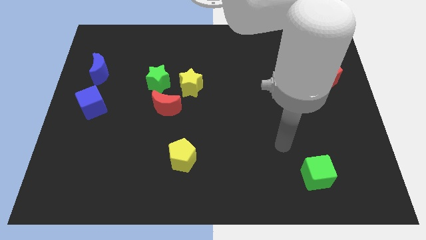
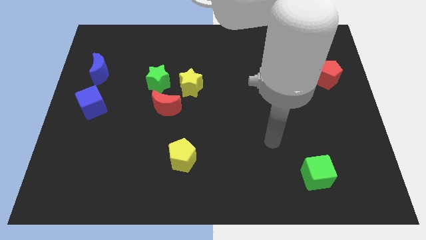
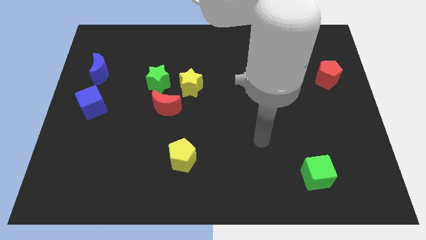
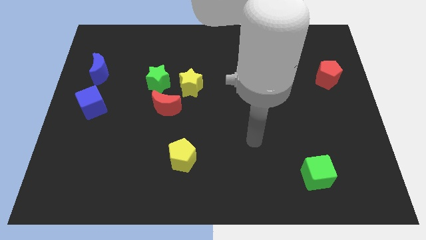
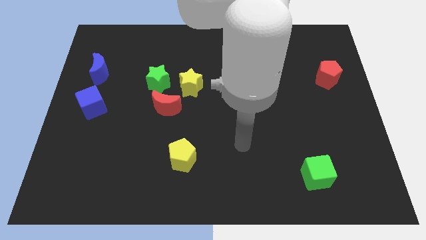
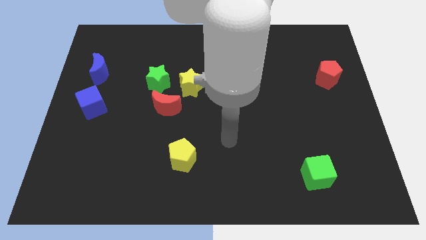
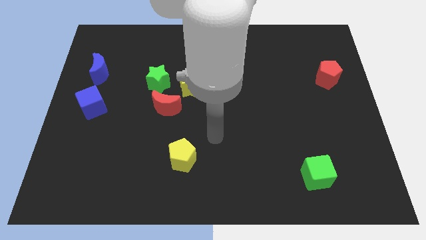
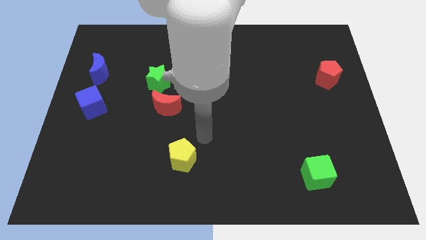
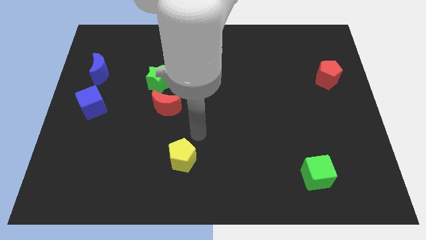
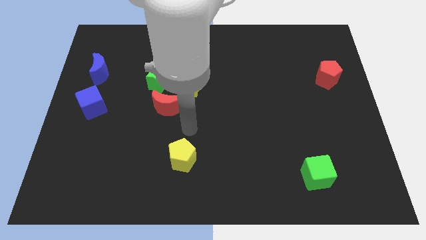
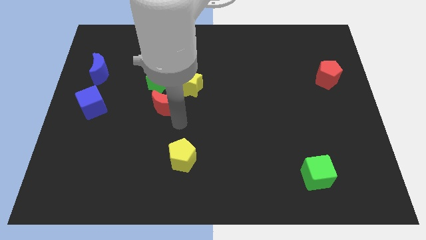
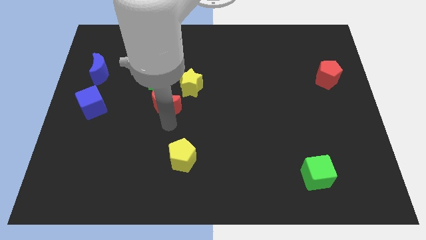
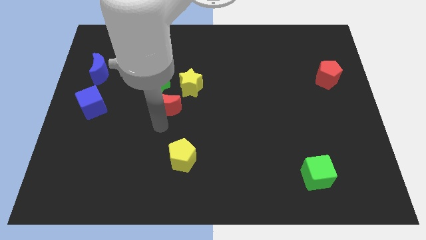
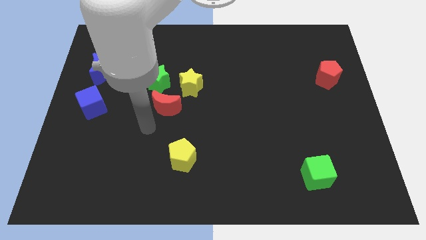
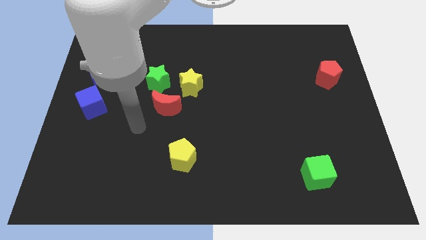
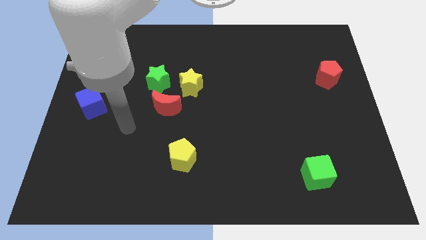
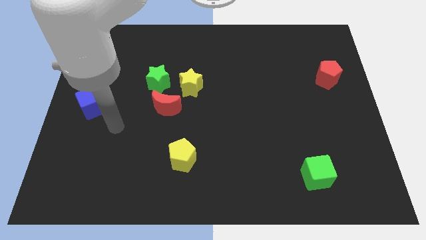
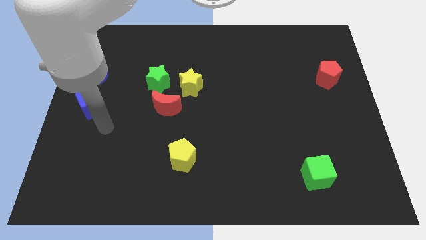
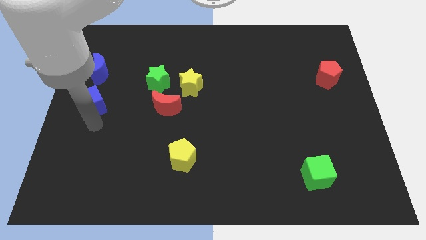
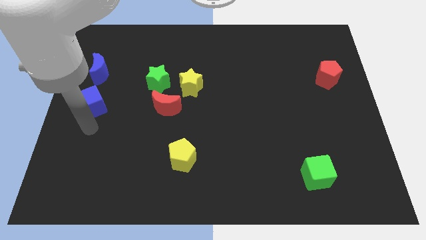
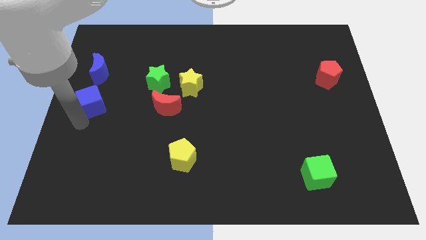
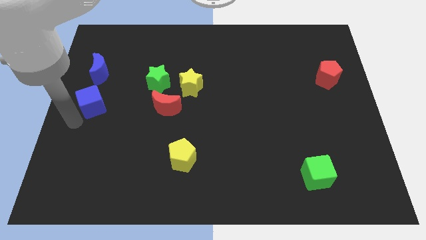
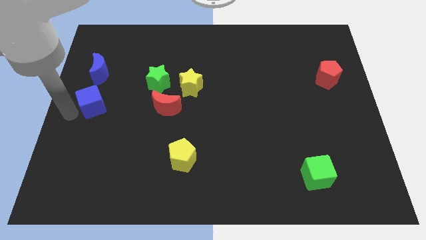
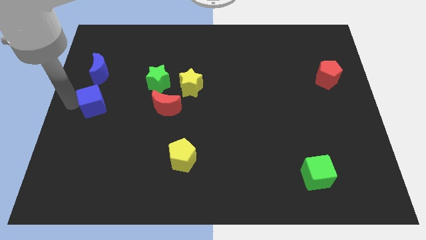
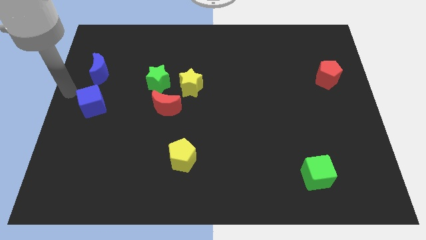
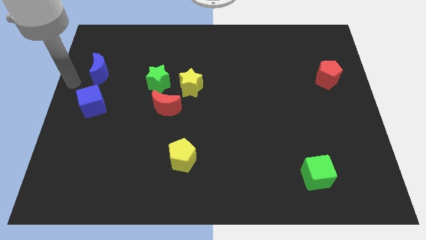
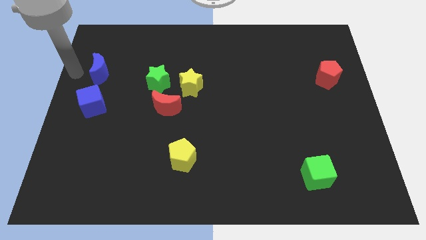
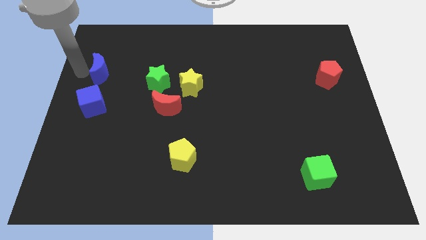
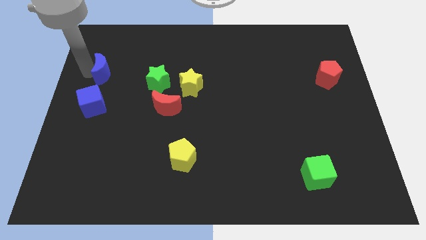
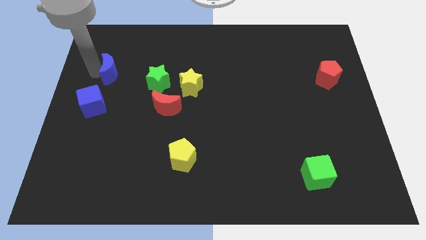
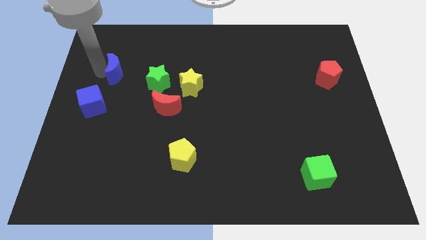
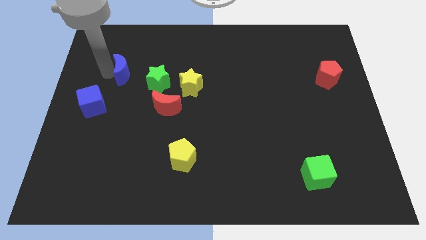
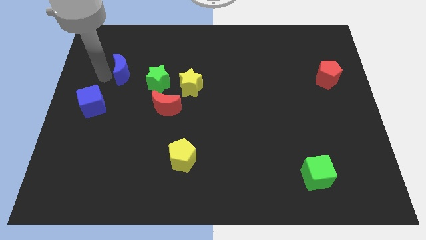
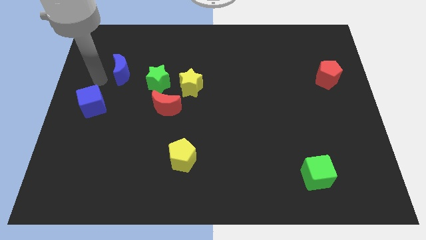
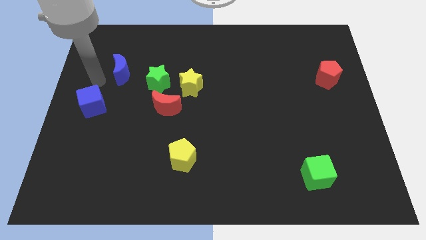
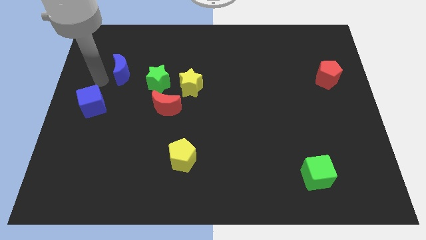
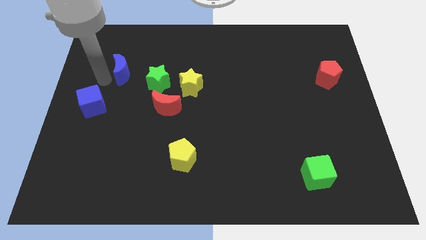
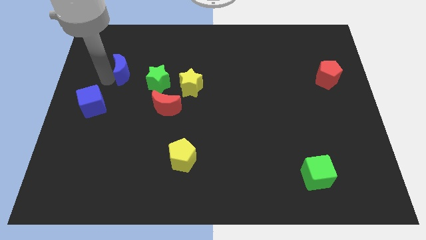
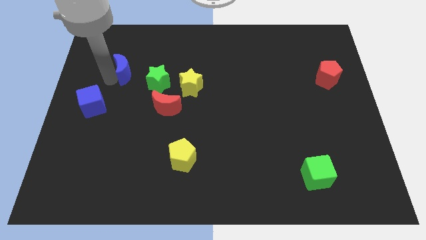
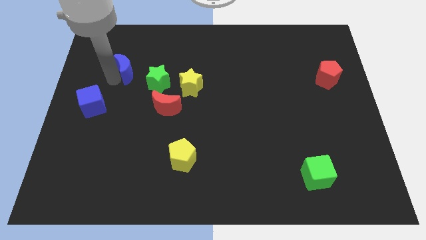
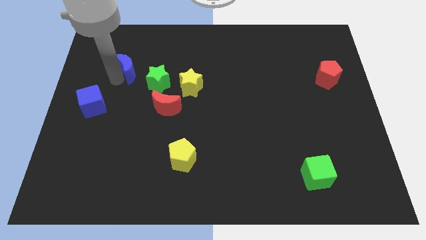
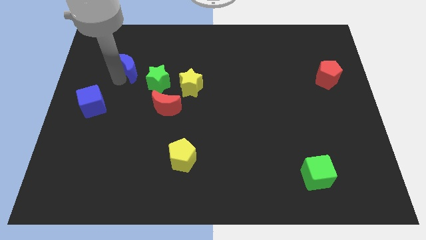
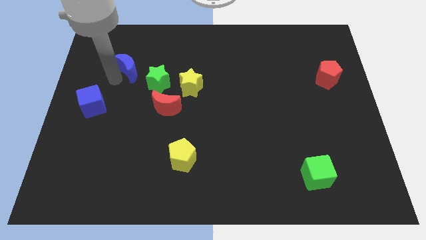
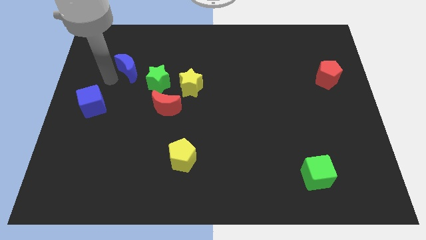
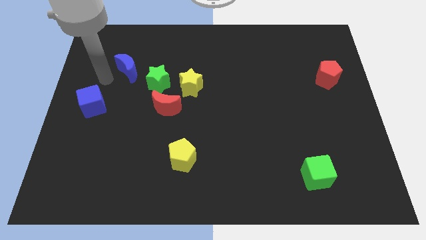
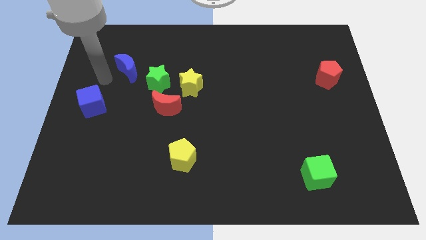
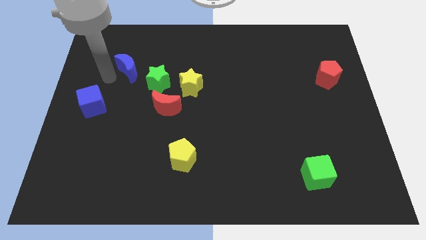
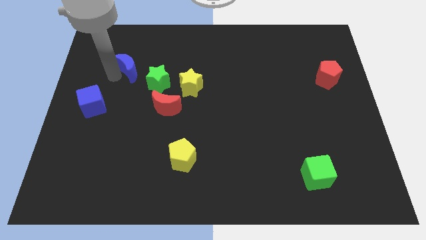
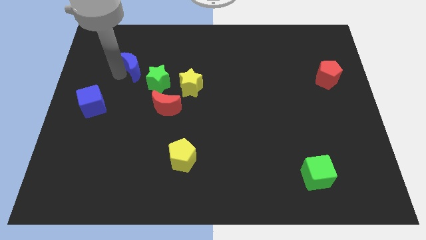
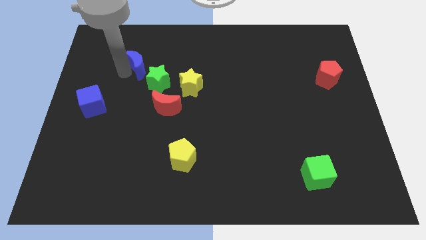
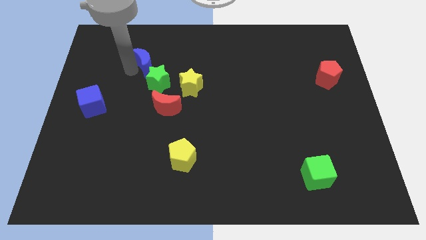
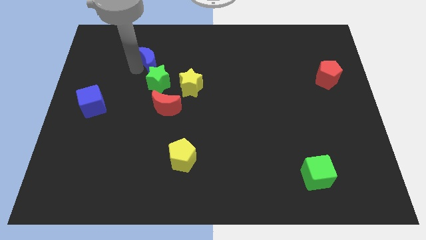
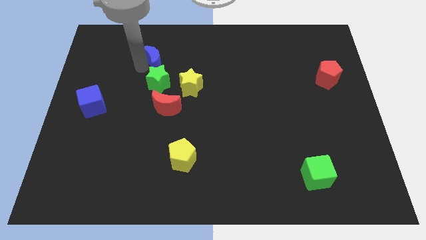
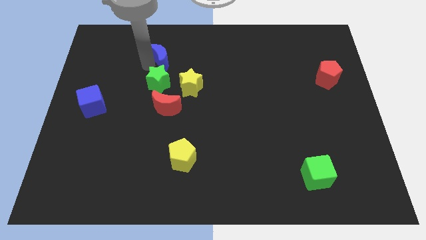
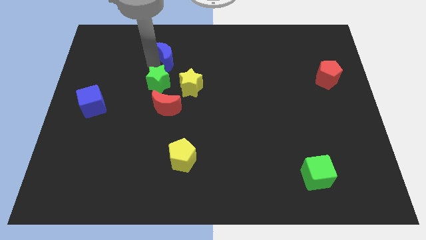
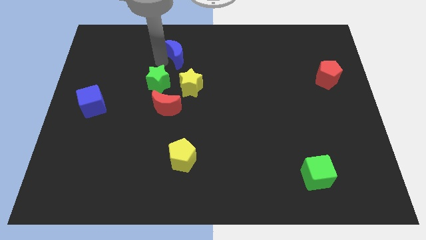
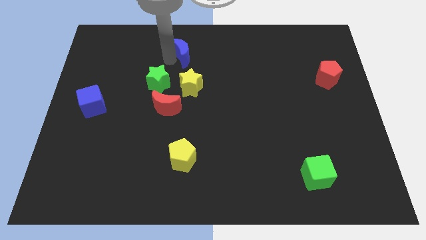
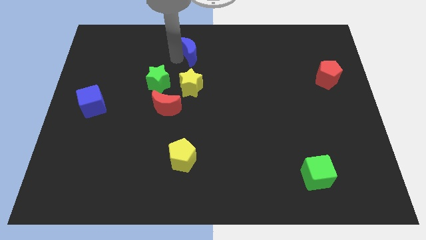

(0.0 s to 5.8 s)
move the blue moon to the top

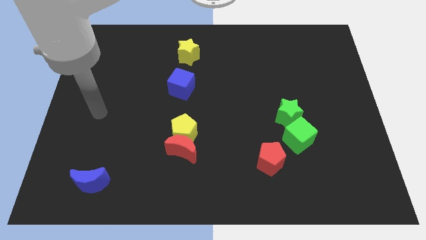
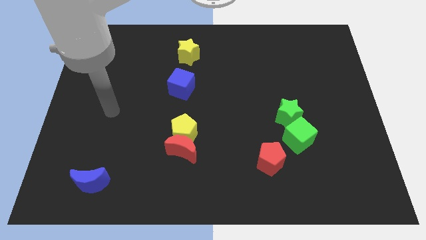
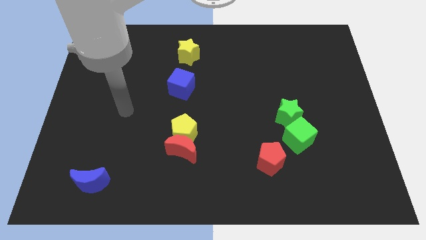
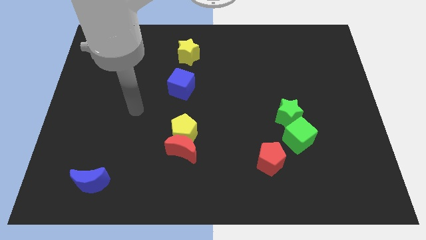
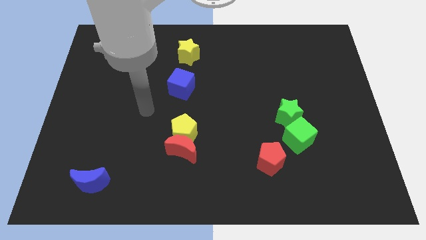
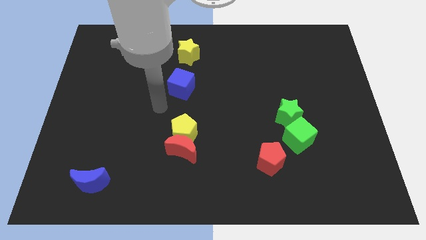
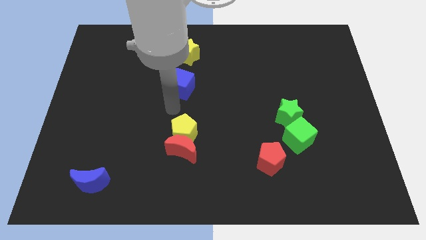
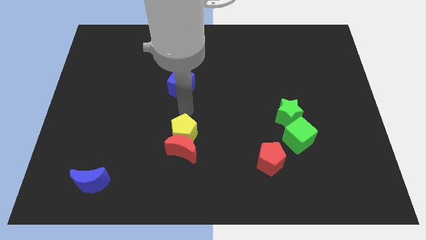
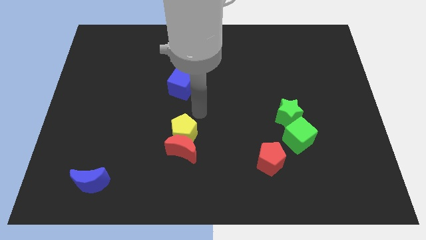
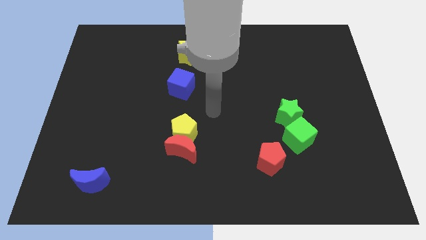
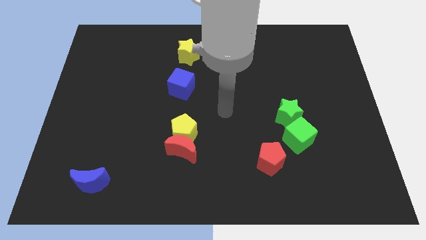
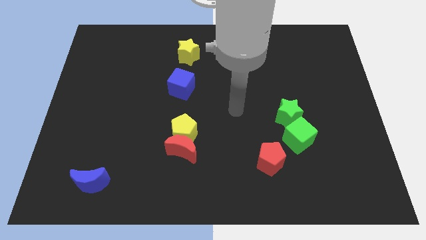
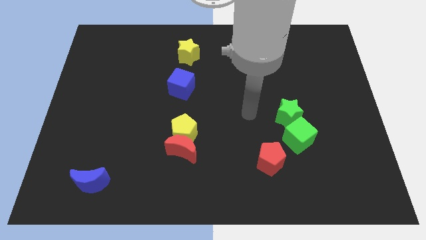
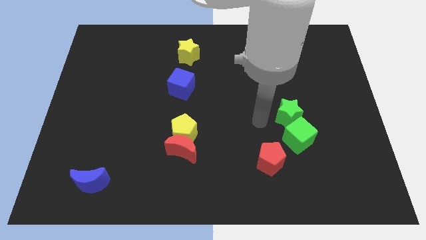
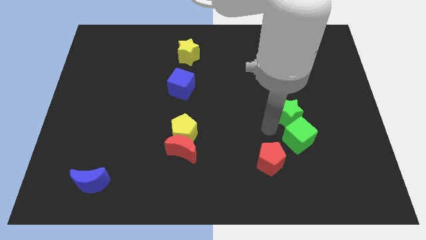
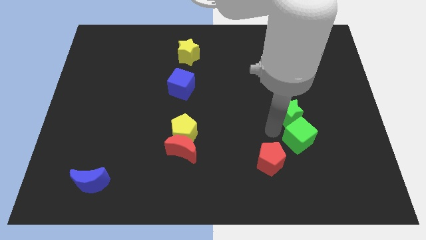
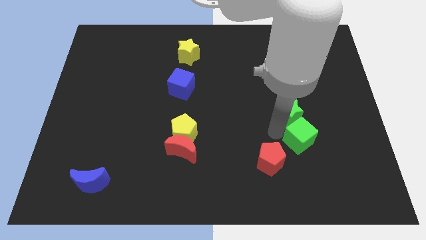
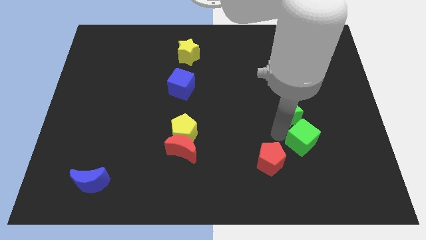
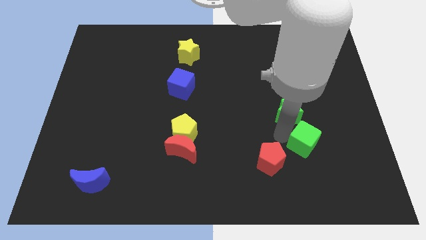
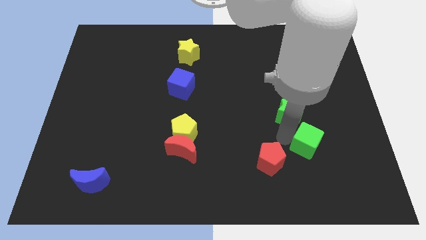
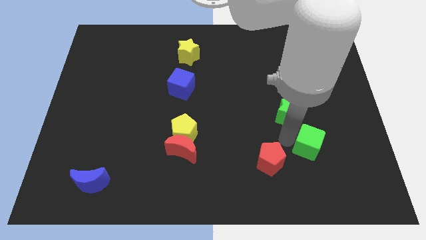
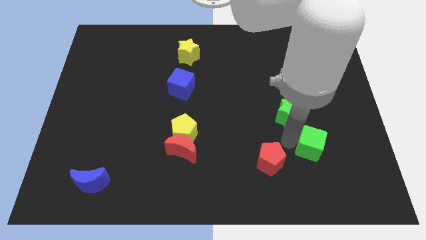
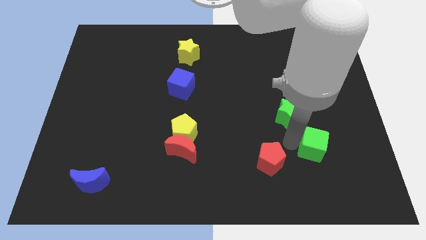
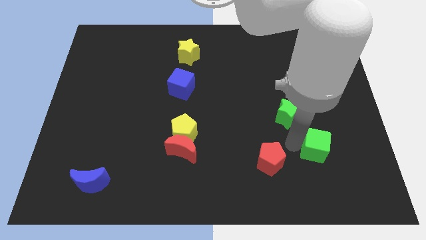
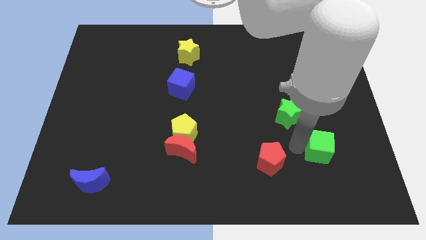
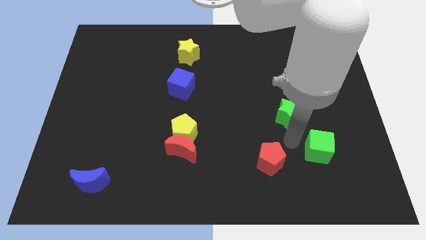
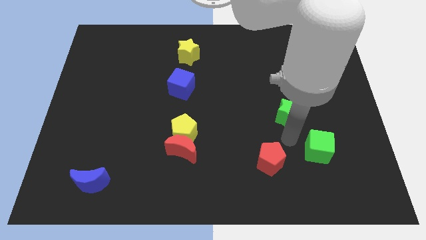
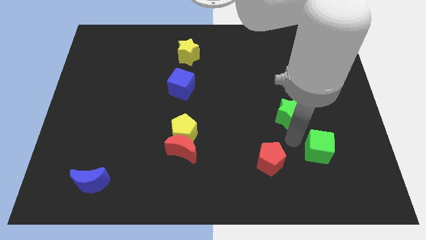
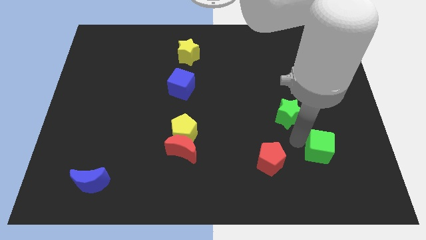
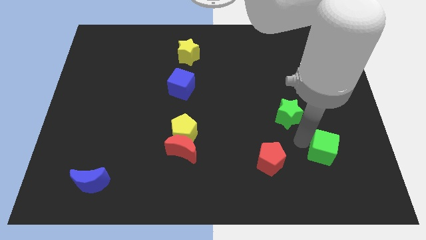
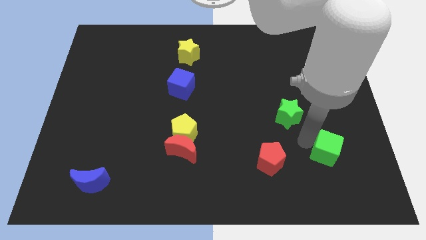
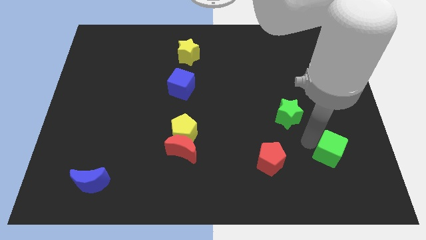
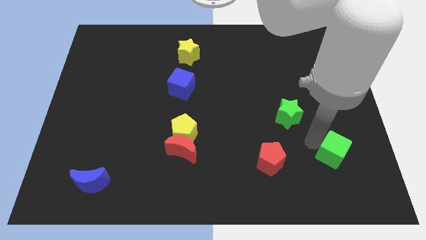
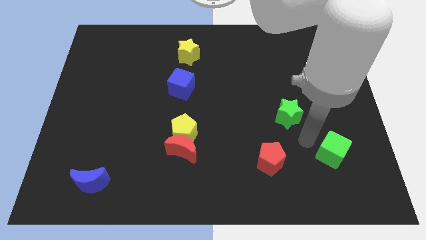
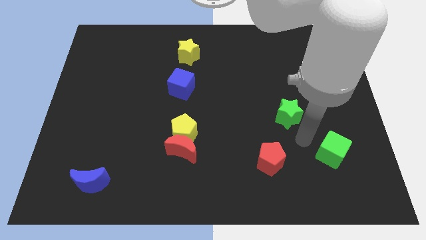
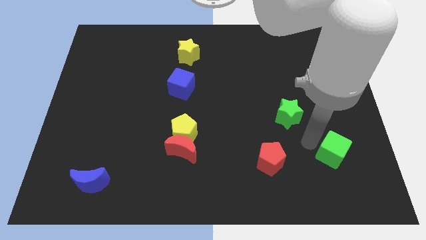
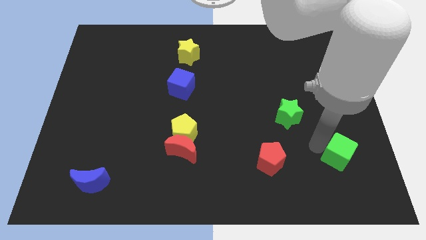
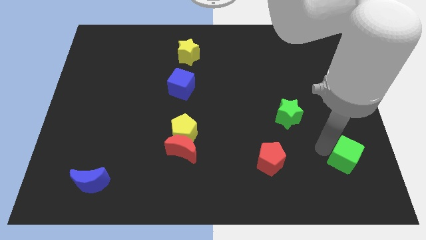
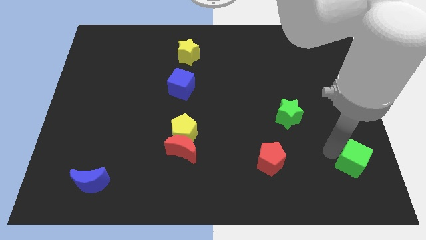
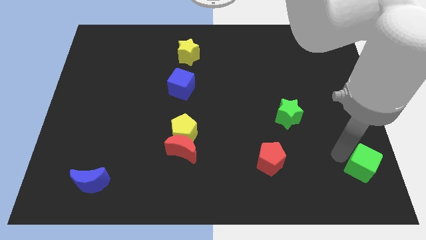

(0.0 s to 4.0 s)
push the green cube to the bottom right of the board
